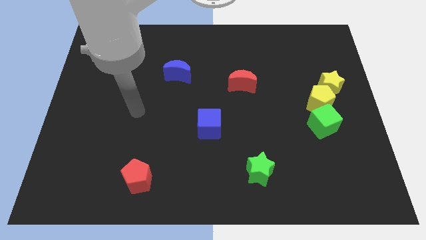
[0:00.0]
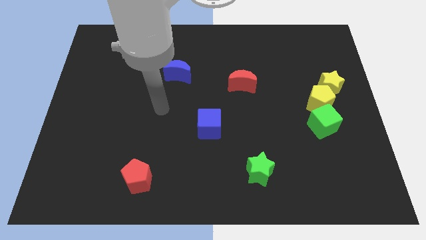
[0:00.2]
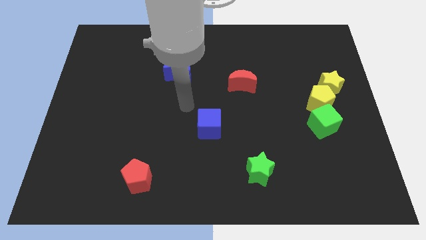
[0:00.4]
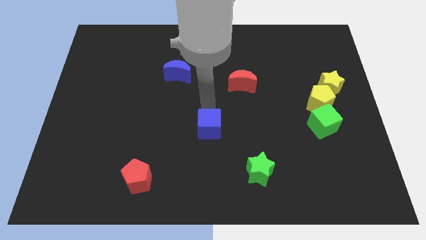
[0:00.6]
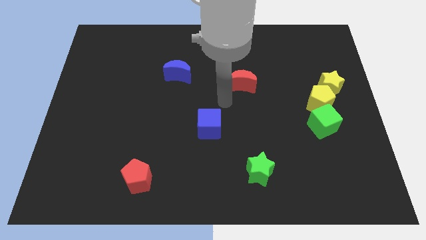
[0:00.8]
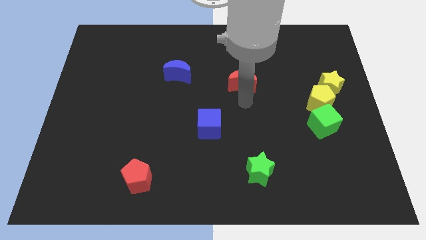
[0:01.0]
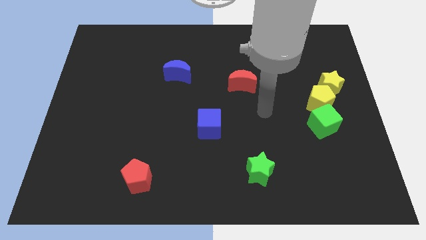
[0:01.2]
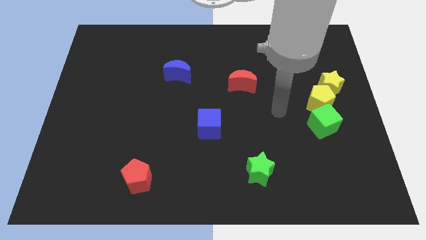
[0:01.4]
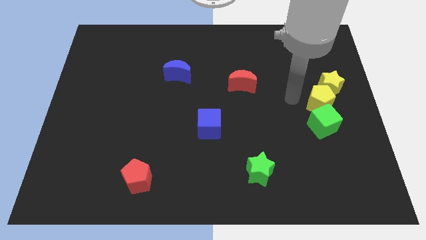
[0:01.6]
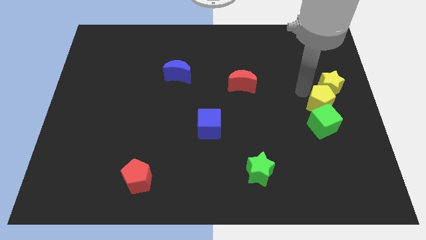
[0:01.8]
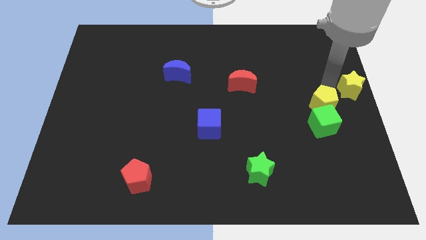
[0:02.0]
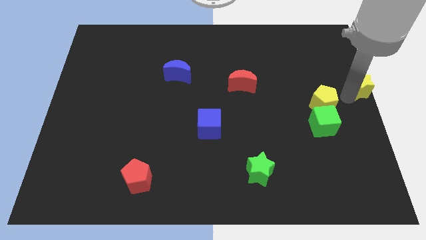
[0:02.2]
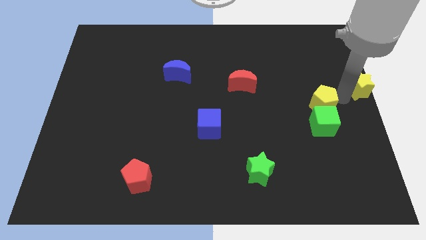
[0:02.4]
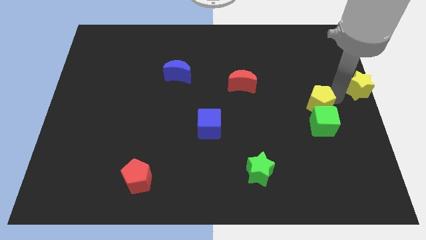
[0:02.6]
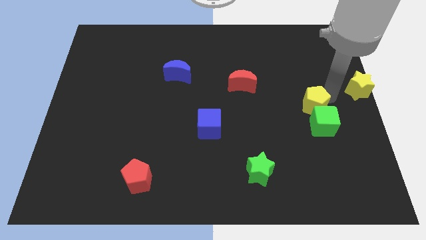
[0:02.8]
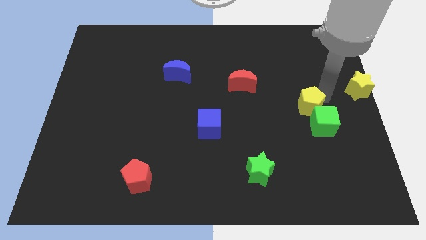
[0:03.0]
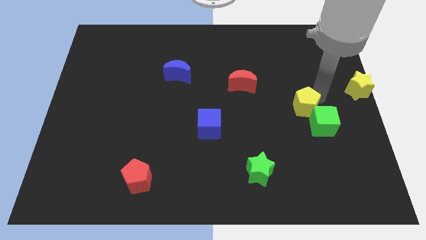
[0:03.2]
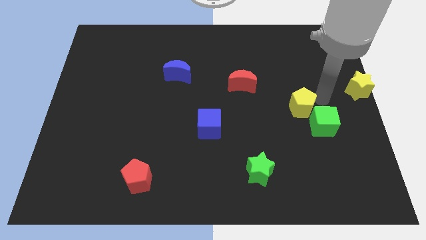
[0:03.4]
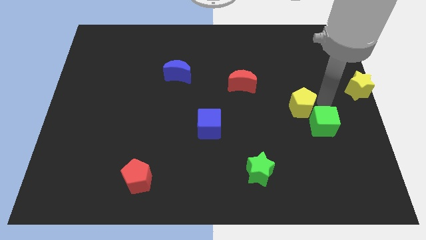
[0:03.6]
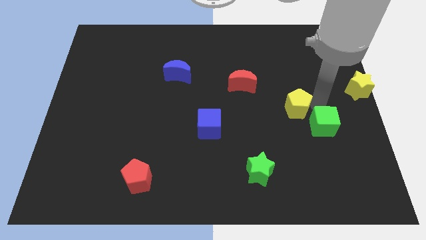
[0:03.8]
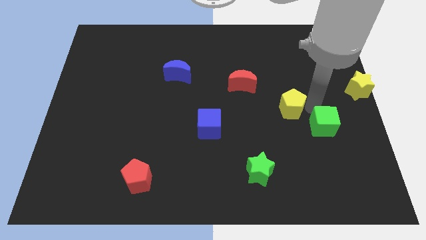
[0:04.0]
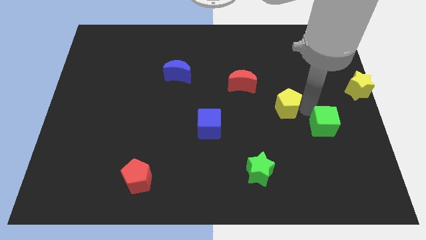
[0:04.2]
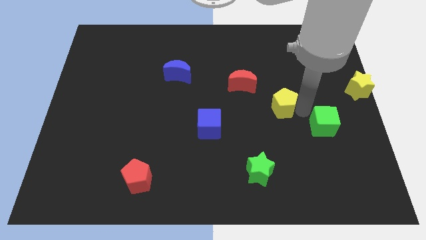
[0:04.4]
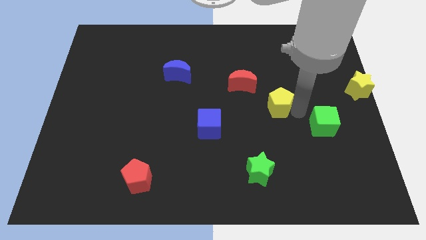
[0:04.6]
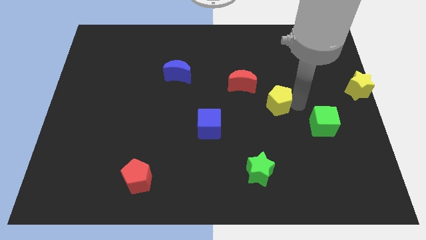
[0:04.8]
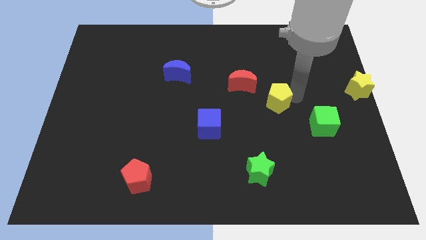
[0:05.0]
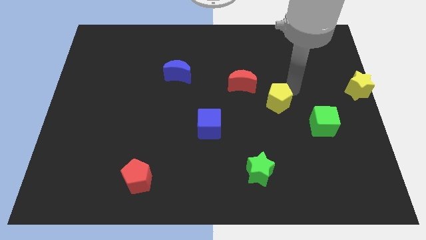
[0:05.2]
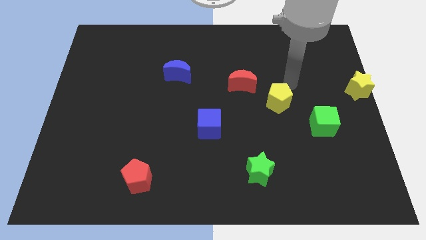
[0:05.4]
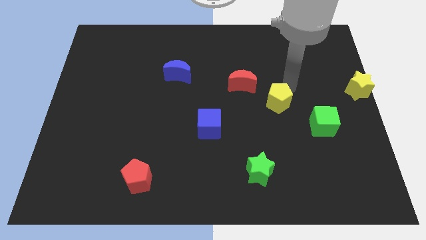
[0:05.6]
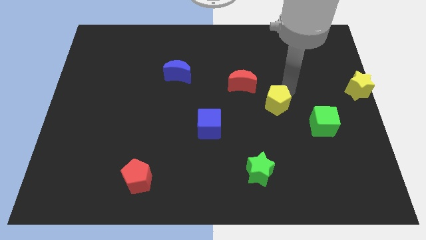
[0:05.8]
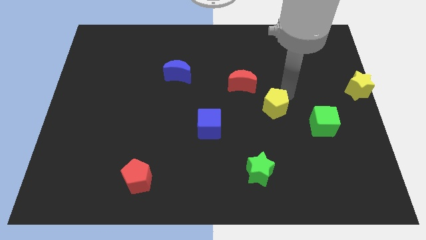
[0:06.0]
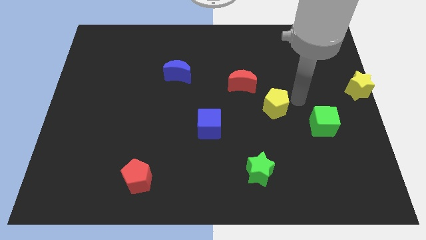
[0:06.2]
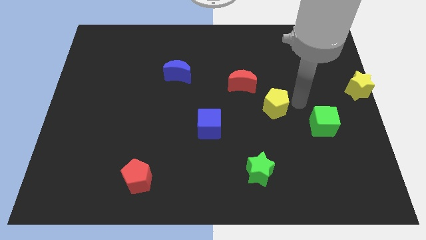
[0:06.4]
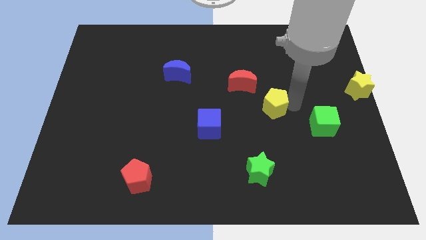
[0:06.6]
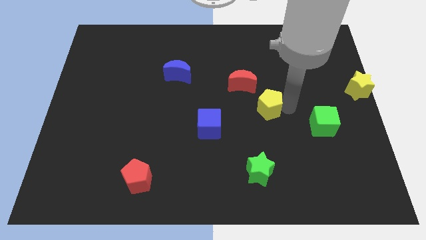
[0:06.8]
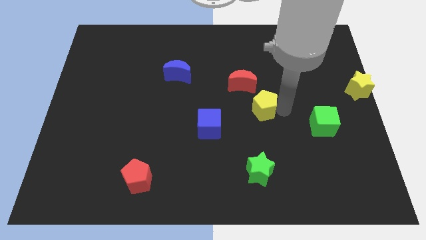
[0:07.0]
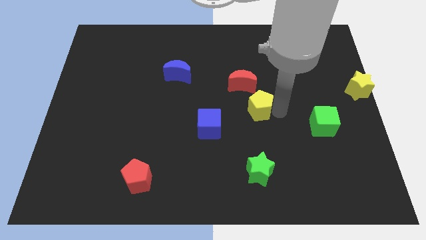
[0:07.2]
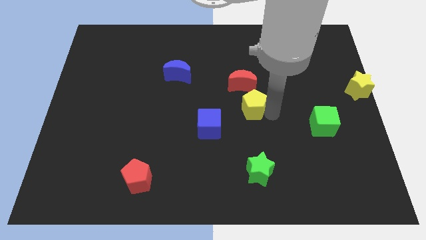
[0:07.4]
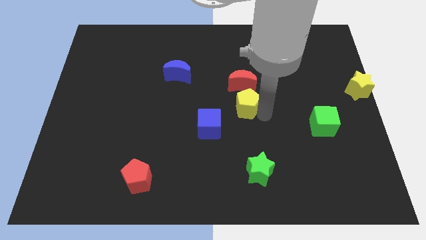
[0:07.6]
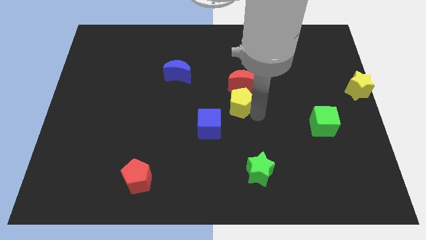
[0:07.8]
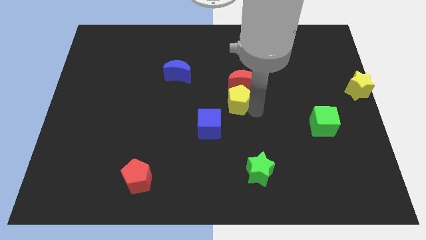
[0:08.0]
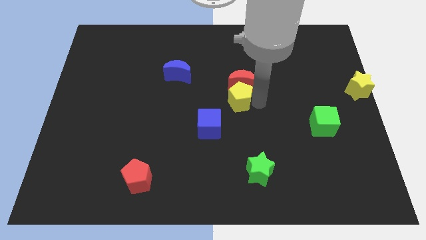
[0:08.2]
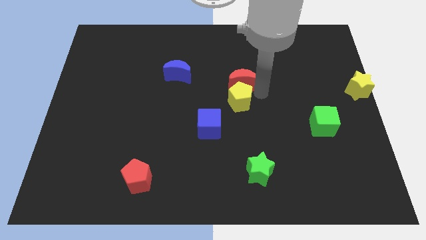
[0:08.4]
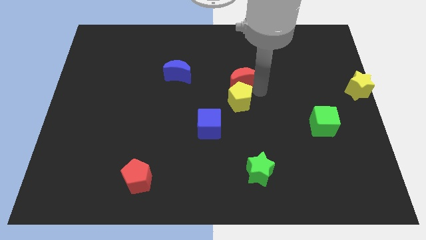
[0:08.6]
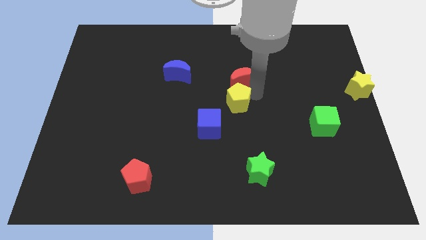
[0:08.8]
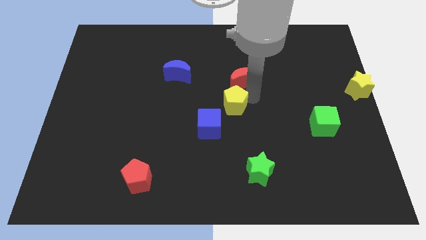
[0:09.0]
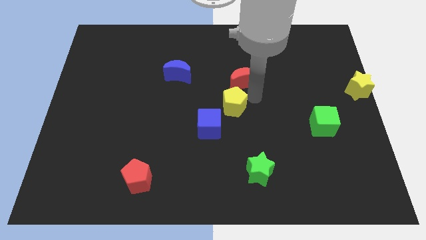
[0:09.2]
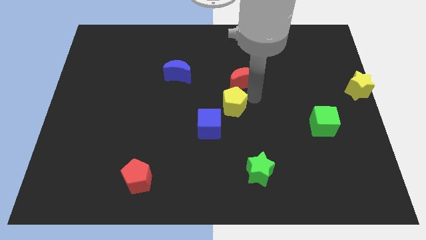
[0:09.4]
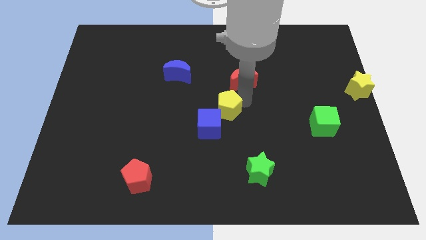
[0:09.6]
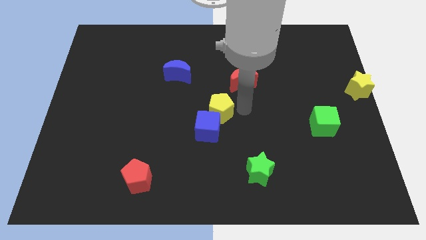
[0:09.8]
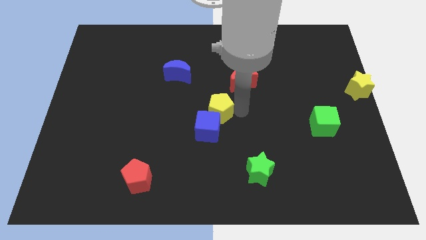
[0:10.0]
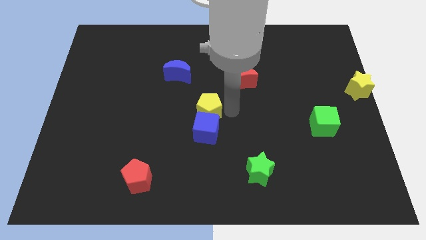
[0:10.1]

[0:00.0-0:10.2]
slide the yellow pentagon to the top left of the blue cube

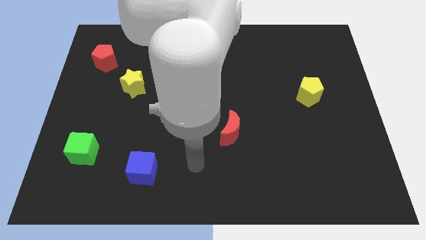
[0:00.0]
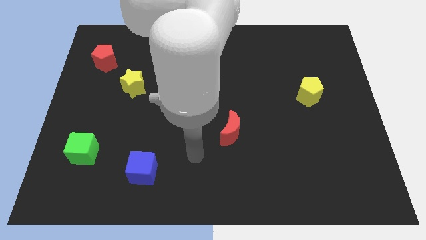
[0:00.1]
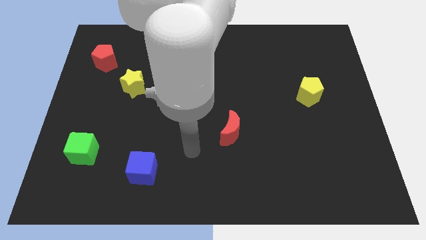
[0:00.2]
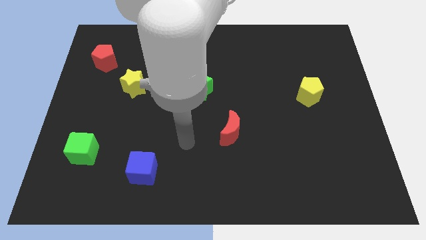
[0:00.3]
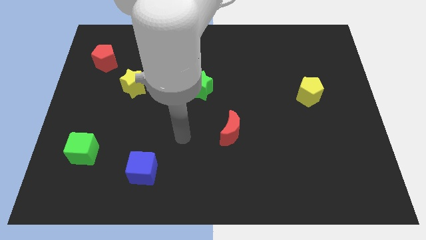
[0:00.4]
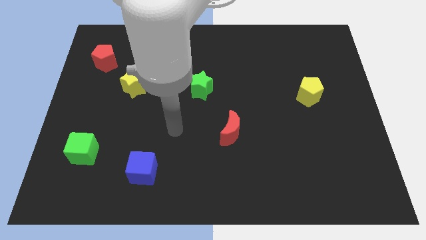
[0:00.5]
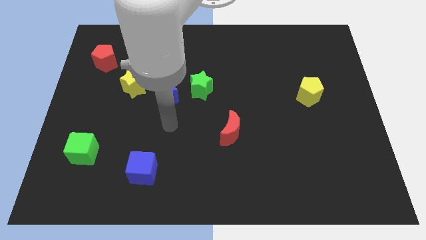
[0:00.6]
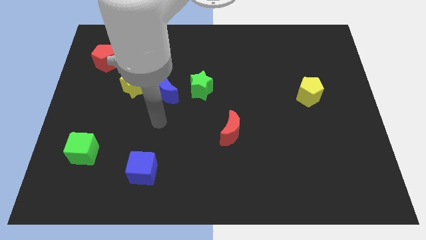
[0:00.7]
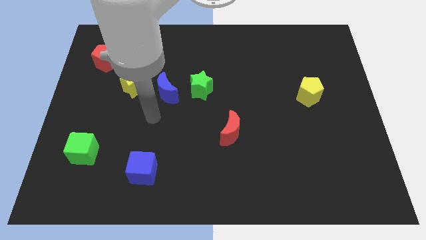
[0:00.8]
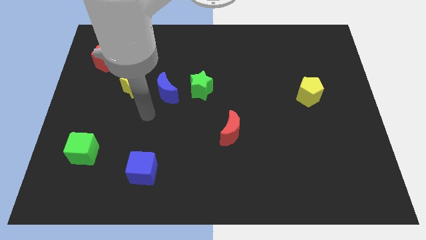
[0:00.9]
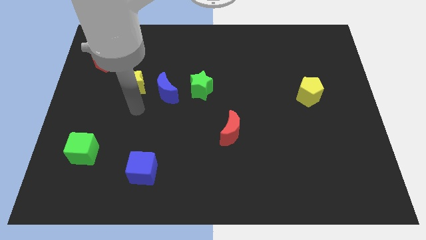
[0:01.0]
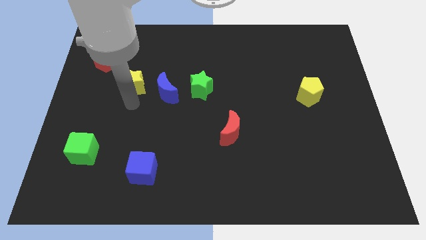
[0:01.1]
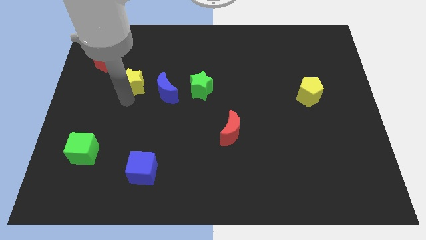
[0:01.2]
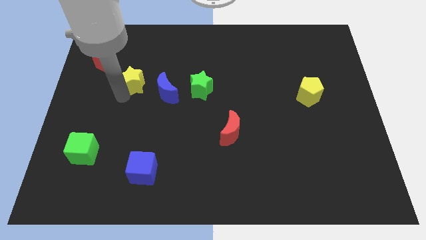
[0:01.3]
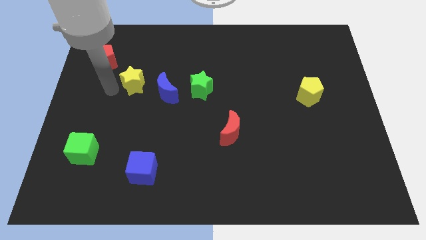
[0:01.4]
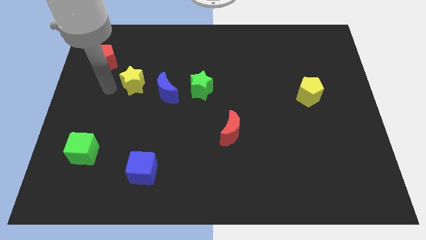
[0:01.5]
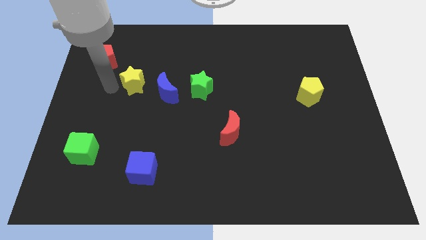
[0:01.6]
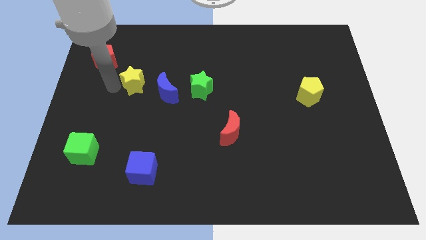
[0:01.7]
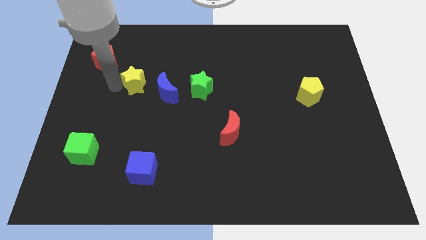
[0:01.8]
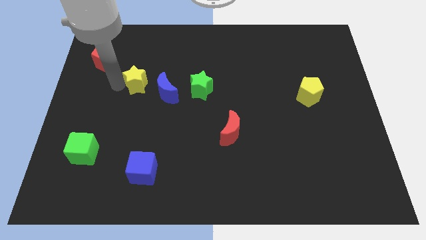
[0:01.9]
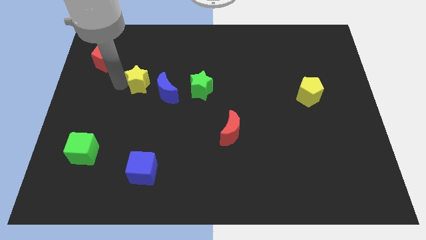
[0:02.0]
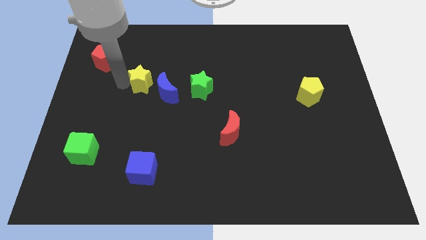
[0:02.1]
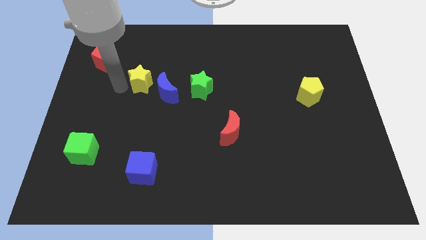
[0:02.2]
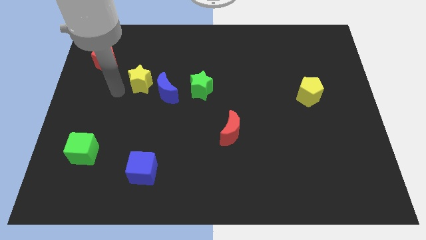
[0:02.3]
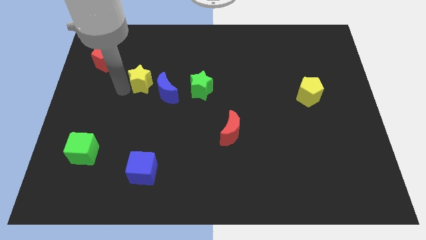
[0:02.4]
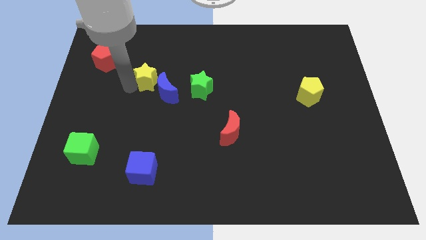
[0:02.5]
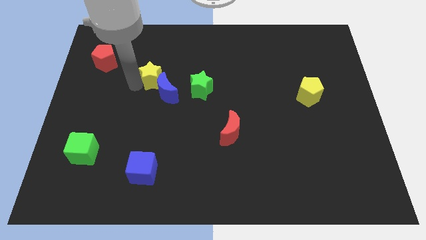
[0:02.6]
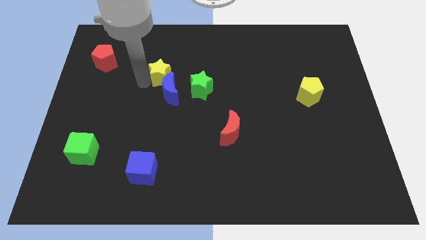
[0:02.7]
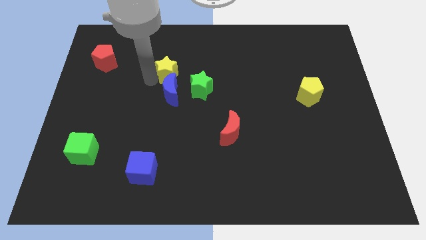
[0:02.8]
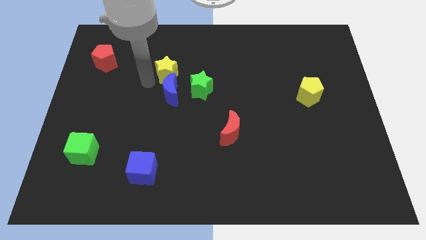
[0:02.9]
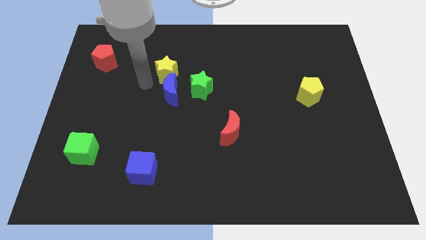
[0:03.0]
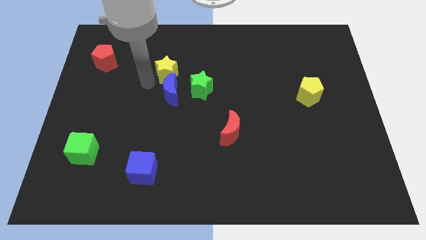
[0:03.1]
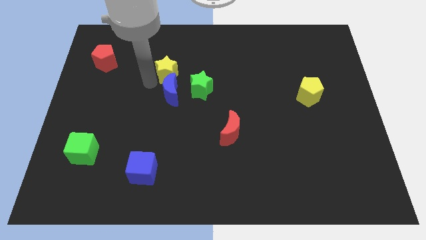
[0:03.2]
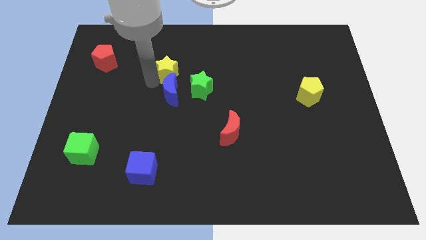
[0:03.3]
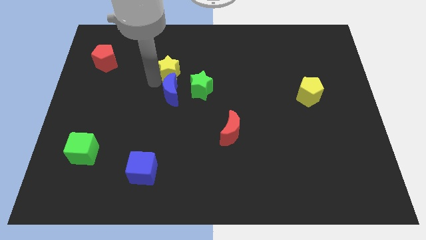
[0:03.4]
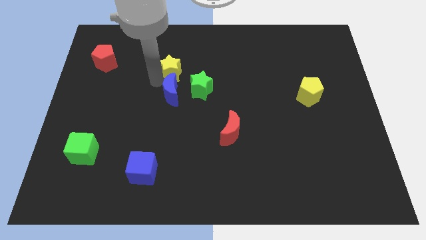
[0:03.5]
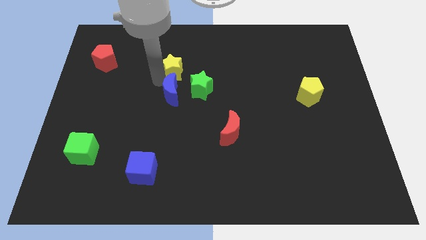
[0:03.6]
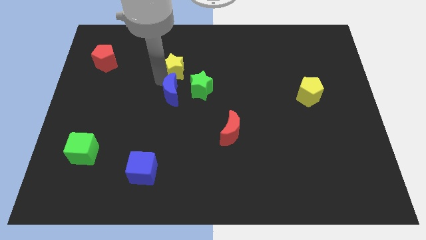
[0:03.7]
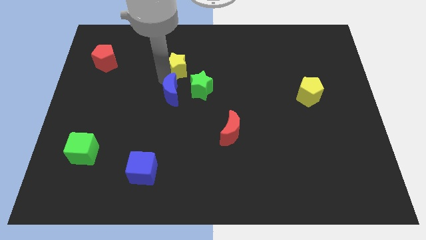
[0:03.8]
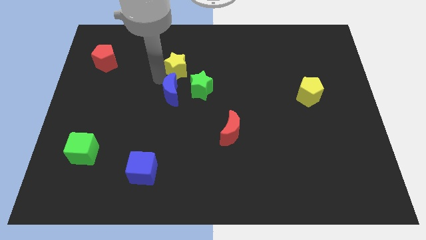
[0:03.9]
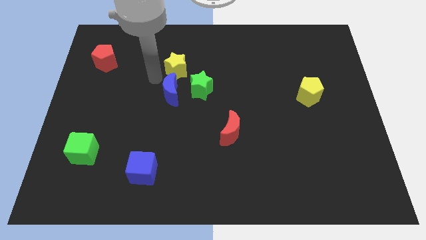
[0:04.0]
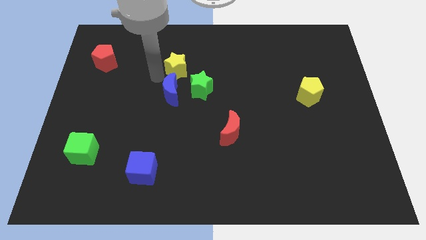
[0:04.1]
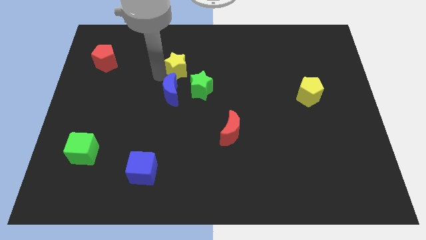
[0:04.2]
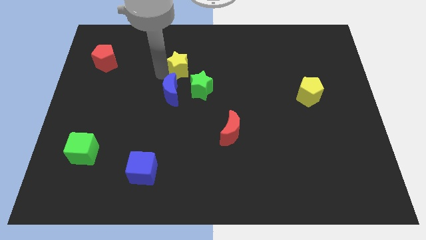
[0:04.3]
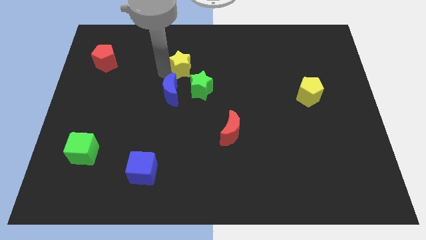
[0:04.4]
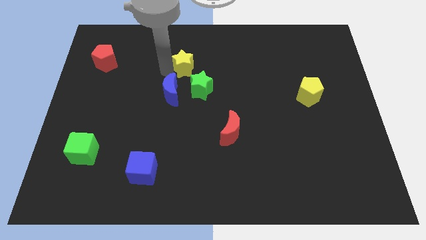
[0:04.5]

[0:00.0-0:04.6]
put the yellow star to the top side of the green star
